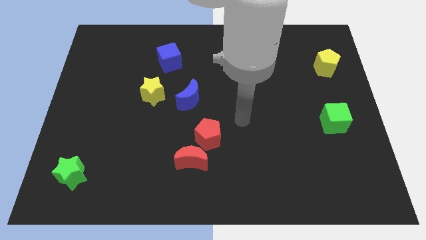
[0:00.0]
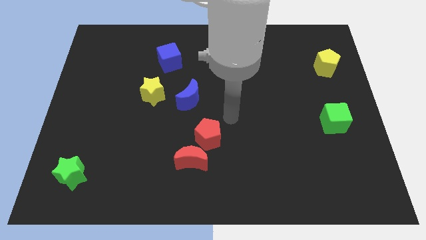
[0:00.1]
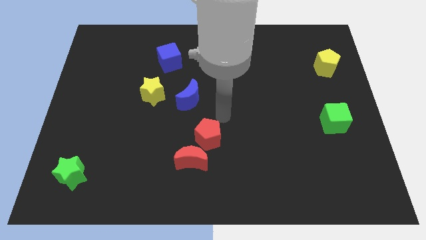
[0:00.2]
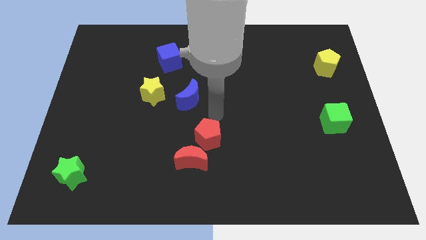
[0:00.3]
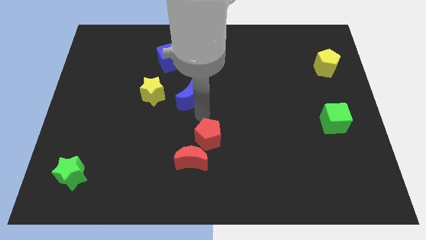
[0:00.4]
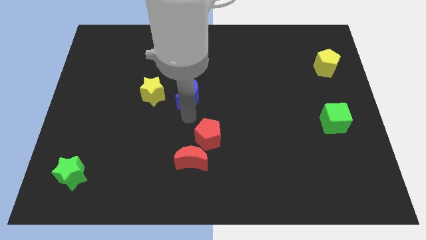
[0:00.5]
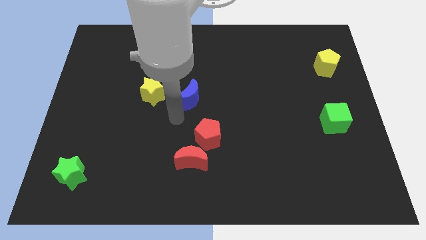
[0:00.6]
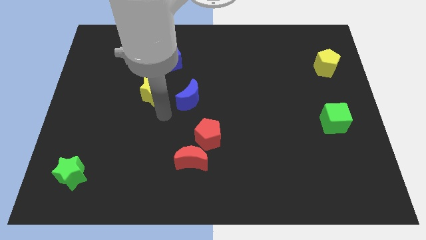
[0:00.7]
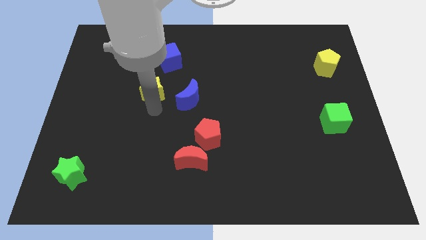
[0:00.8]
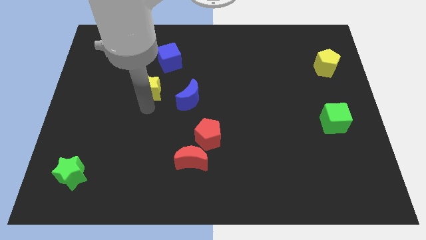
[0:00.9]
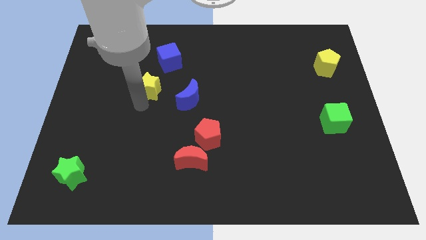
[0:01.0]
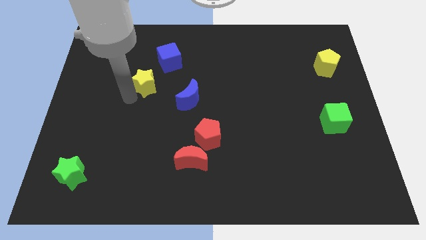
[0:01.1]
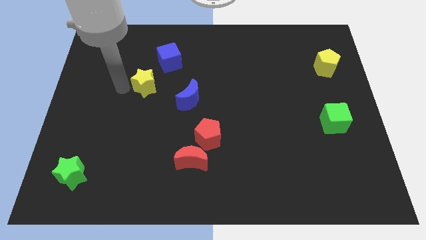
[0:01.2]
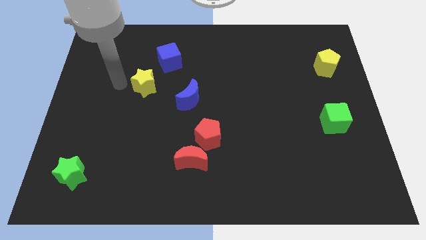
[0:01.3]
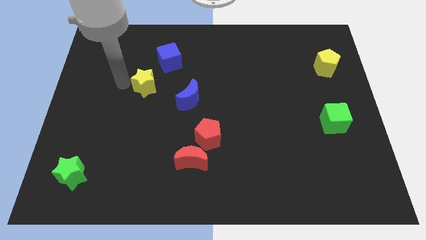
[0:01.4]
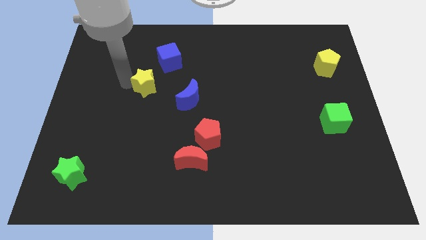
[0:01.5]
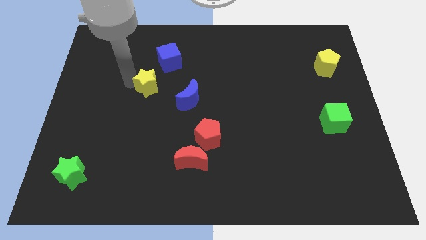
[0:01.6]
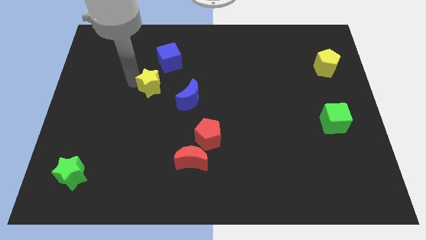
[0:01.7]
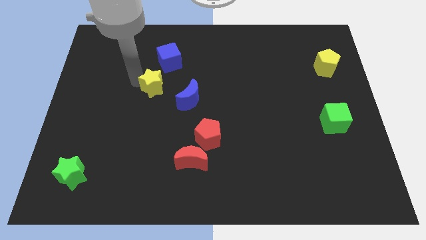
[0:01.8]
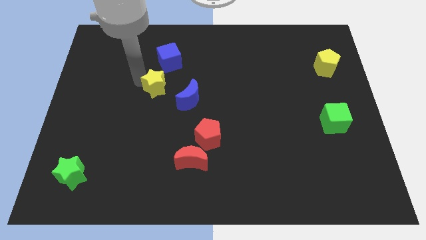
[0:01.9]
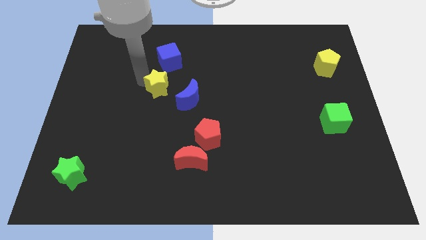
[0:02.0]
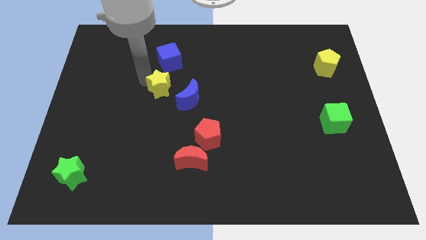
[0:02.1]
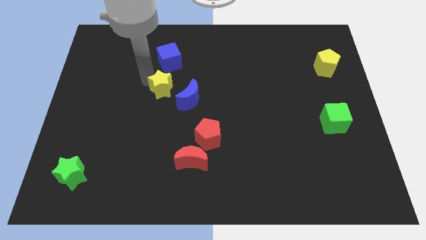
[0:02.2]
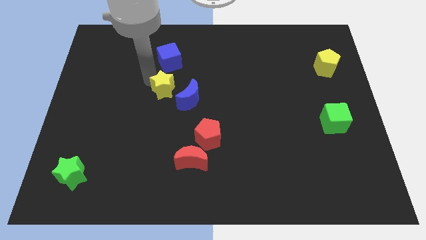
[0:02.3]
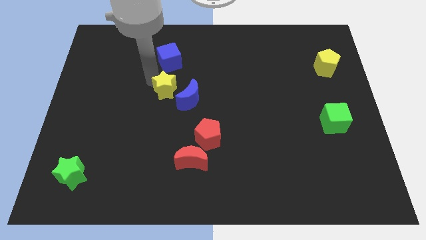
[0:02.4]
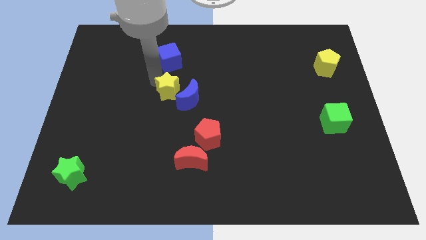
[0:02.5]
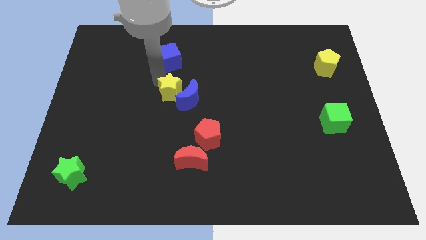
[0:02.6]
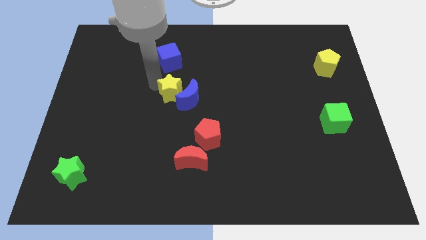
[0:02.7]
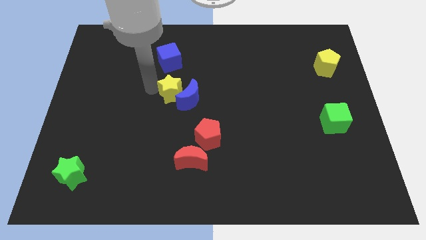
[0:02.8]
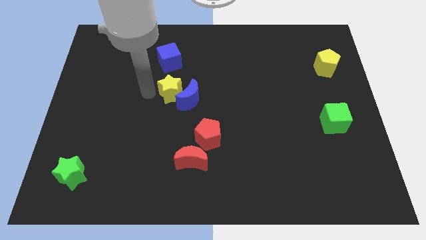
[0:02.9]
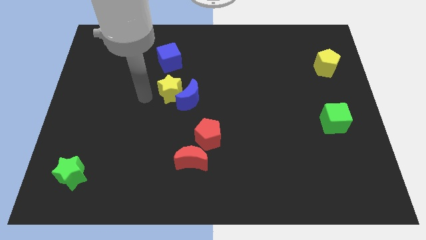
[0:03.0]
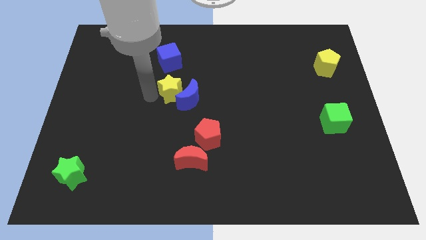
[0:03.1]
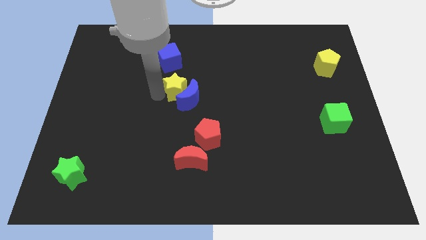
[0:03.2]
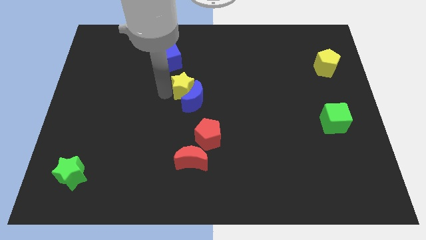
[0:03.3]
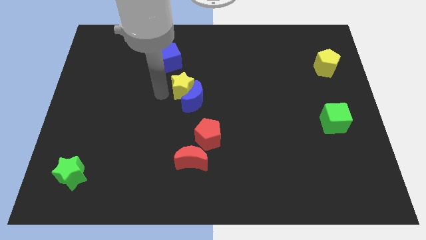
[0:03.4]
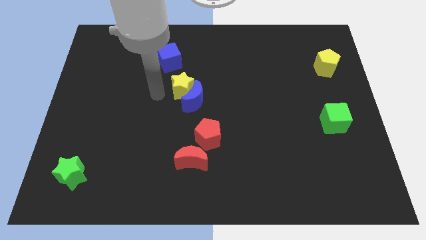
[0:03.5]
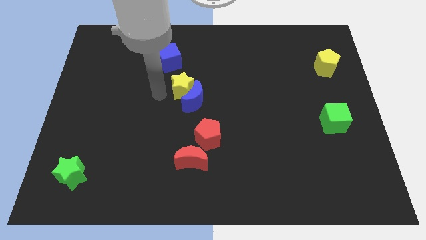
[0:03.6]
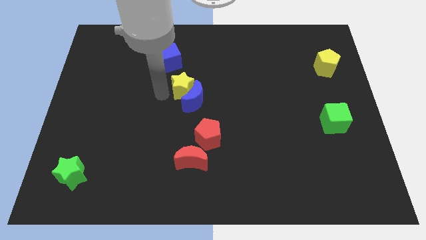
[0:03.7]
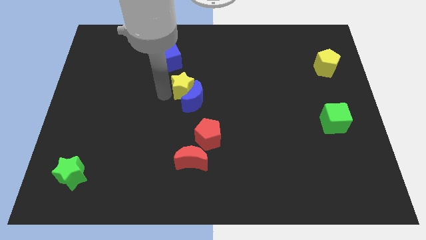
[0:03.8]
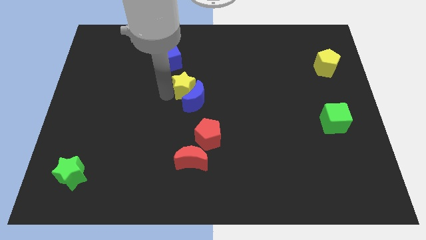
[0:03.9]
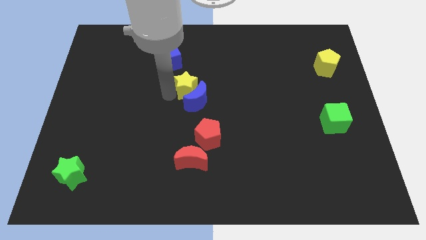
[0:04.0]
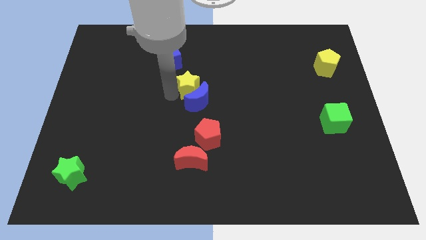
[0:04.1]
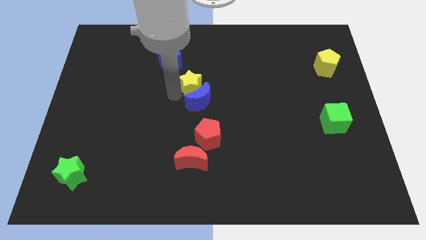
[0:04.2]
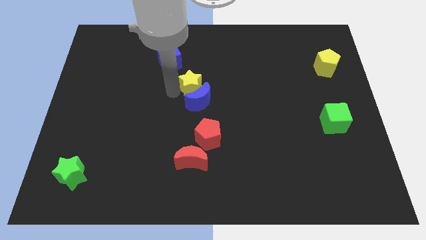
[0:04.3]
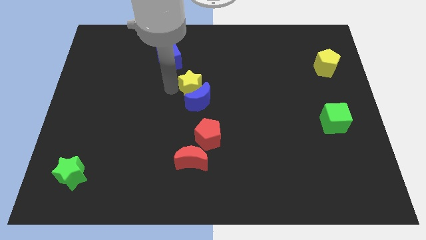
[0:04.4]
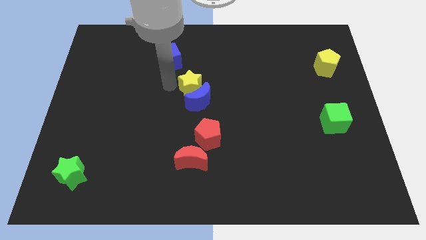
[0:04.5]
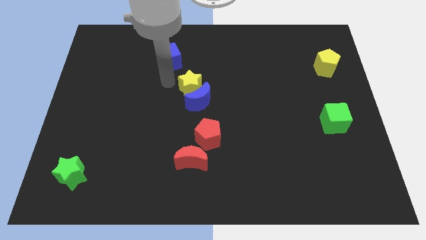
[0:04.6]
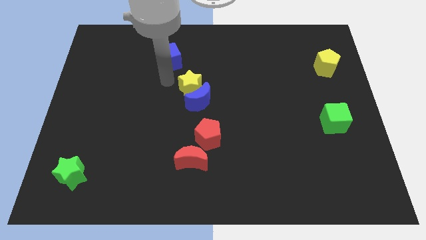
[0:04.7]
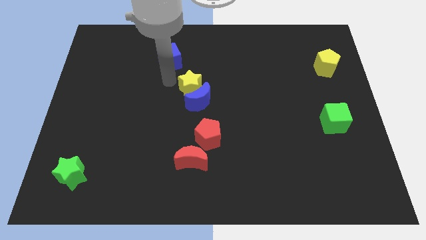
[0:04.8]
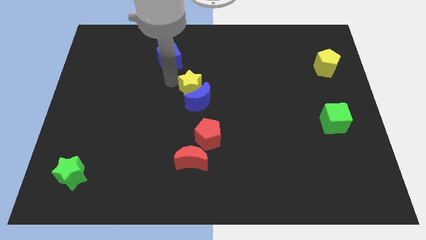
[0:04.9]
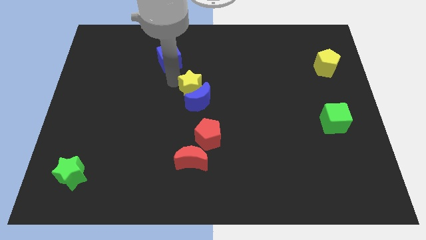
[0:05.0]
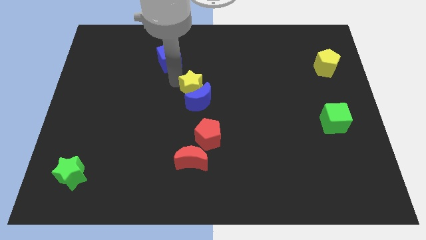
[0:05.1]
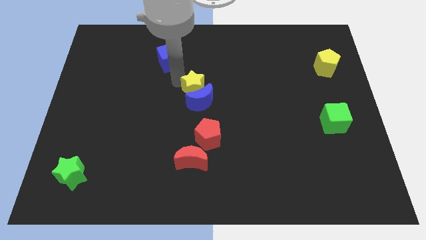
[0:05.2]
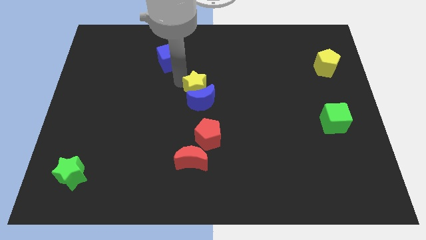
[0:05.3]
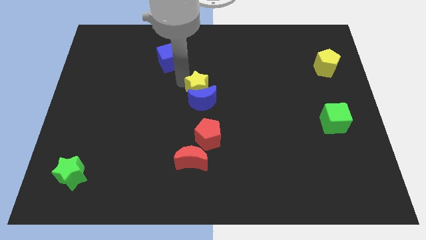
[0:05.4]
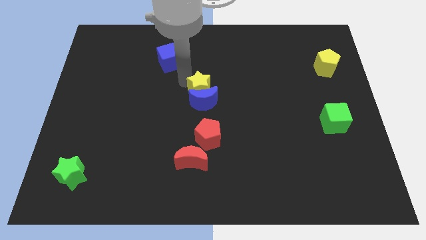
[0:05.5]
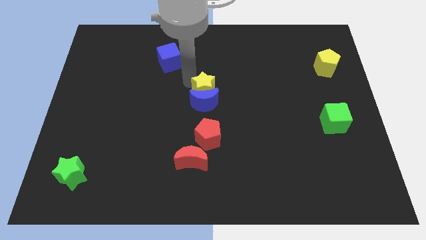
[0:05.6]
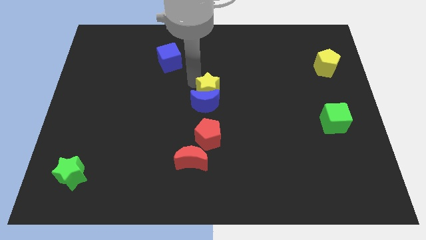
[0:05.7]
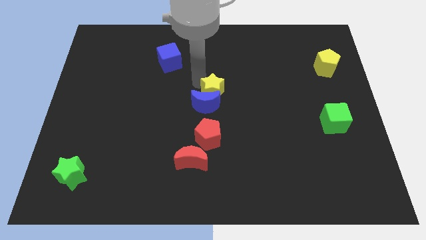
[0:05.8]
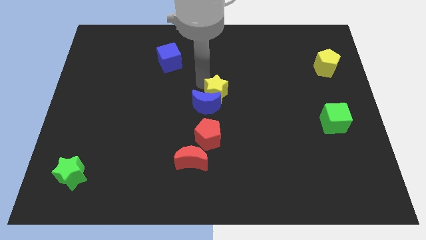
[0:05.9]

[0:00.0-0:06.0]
put the yellow star to the right of the blue moon

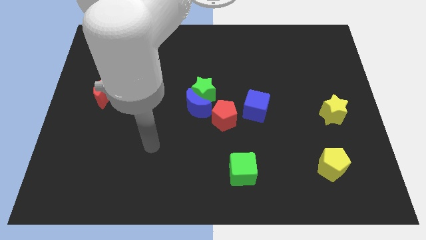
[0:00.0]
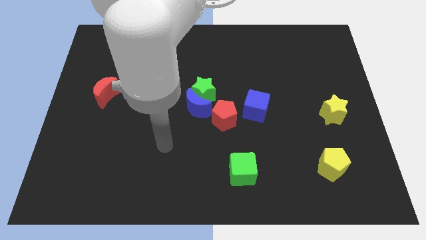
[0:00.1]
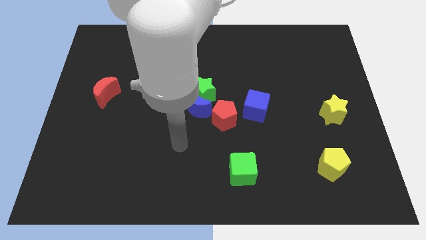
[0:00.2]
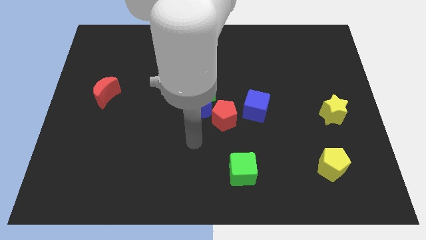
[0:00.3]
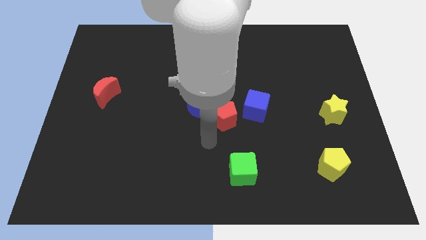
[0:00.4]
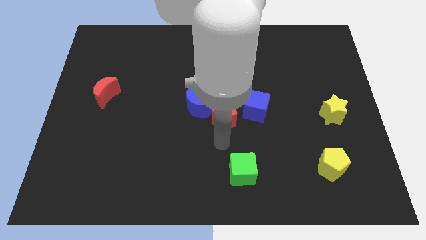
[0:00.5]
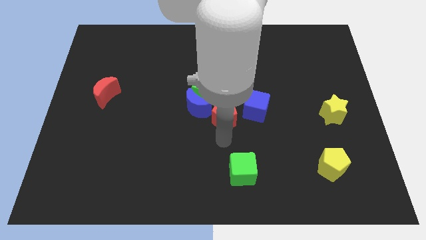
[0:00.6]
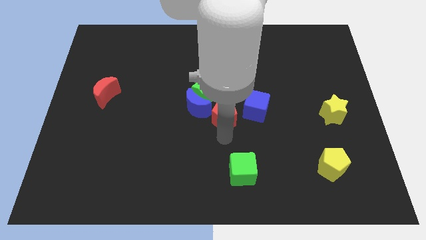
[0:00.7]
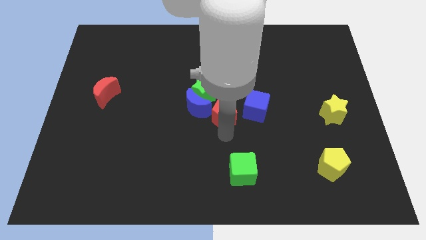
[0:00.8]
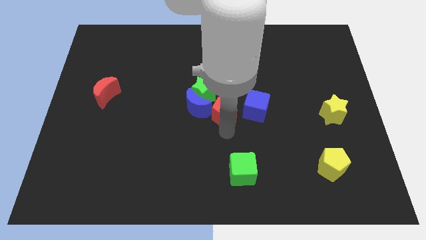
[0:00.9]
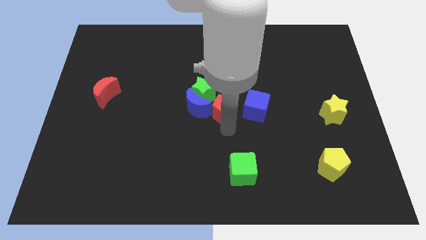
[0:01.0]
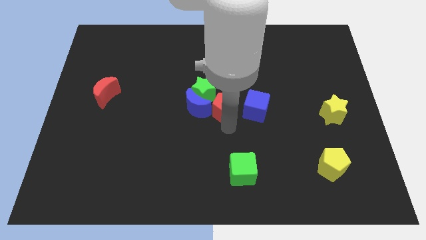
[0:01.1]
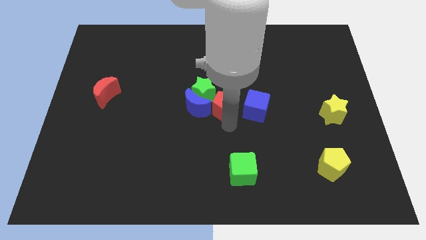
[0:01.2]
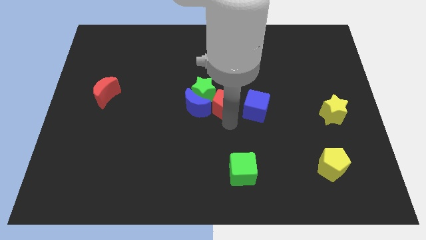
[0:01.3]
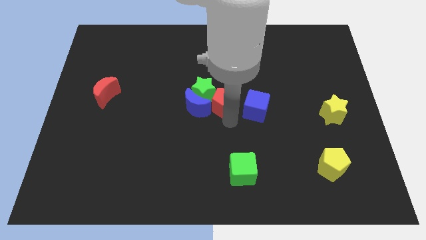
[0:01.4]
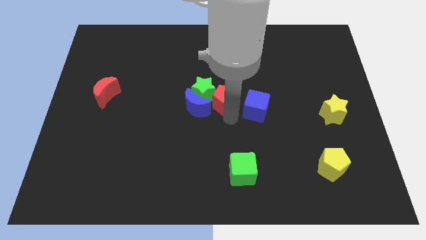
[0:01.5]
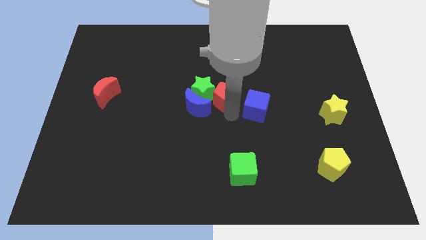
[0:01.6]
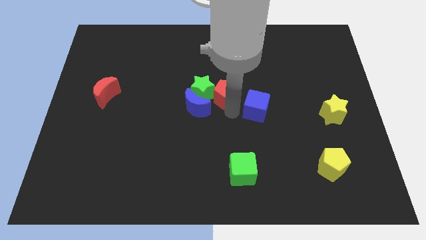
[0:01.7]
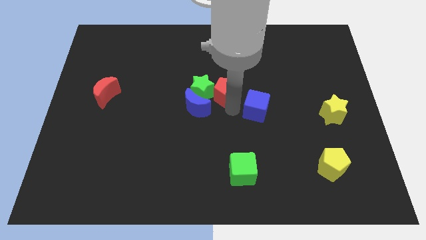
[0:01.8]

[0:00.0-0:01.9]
slide the red pentagon to the top right side of the green star

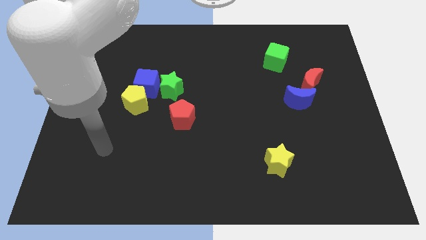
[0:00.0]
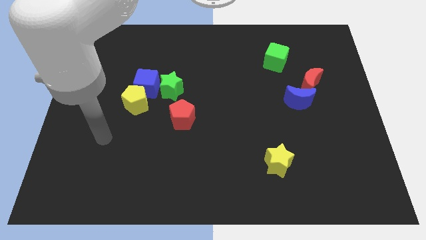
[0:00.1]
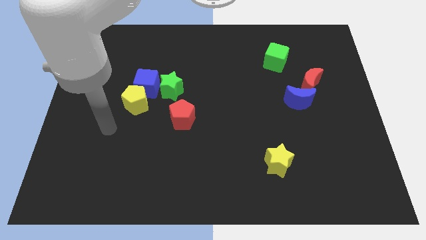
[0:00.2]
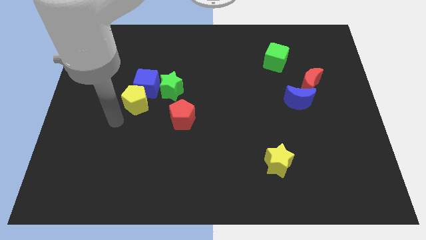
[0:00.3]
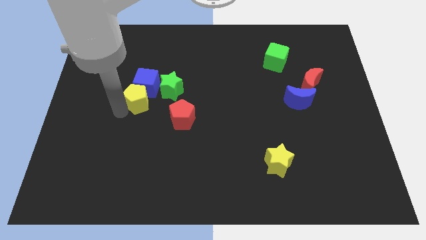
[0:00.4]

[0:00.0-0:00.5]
push the yellow pentagon to the bottom right of the blue cube
